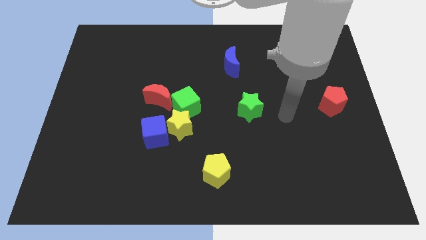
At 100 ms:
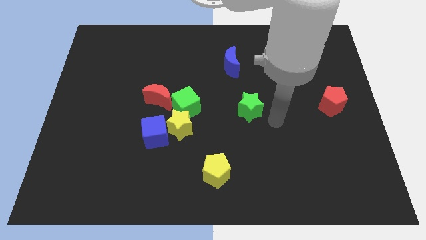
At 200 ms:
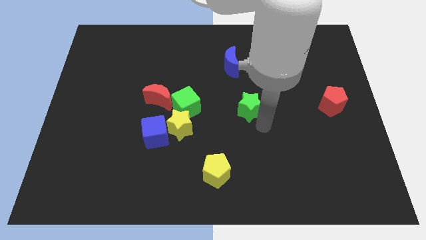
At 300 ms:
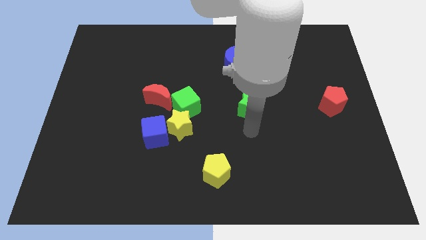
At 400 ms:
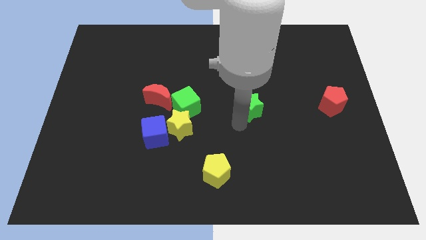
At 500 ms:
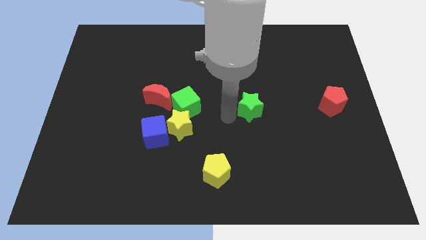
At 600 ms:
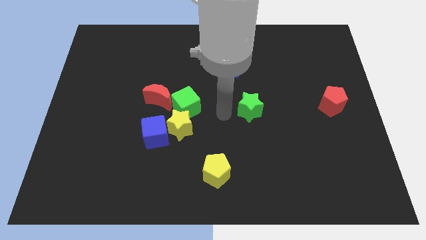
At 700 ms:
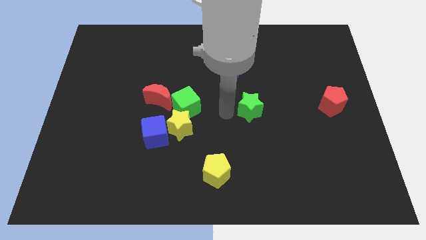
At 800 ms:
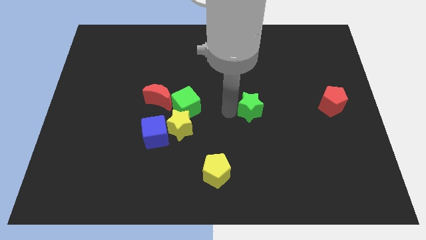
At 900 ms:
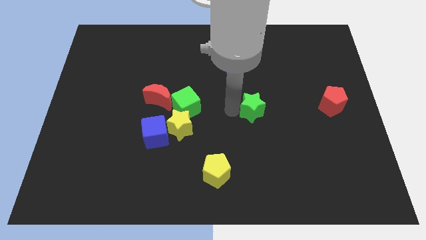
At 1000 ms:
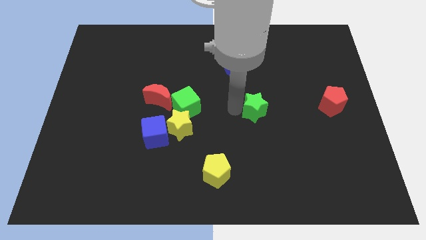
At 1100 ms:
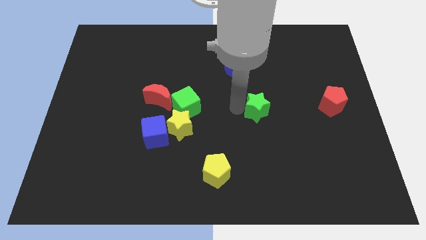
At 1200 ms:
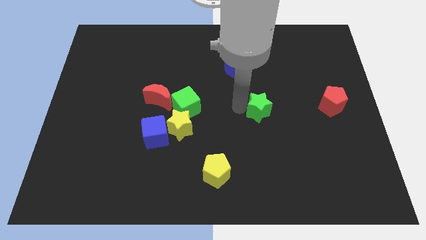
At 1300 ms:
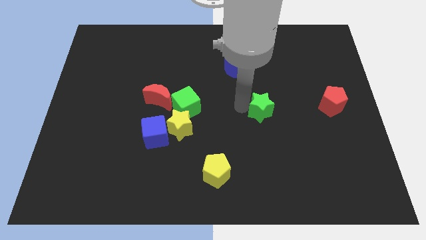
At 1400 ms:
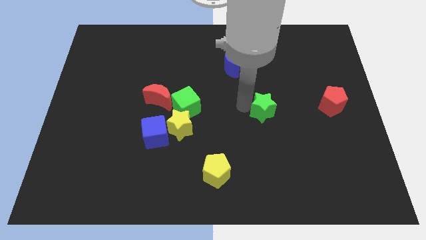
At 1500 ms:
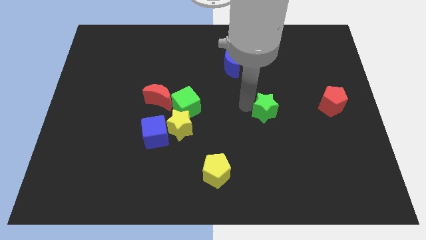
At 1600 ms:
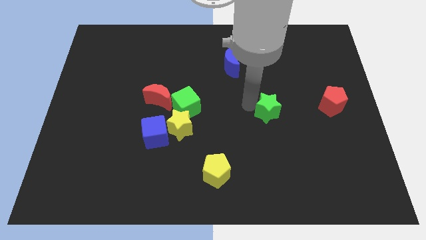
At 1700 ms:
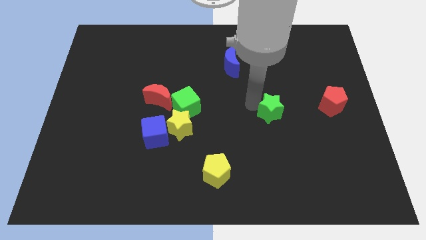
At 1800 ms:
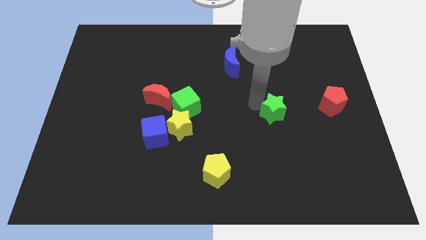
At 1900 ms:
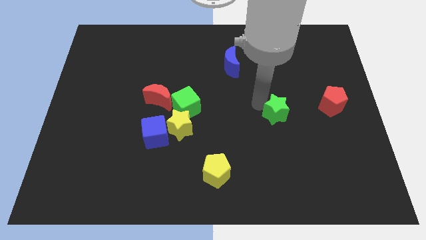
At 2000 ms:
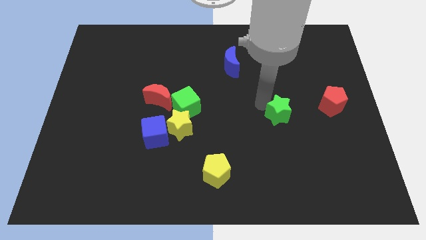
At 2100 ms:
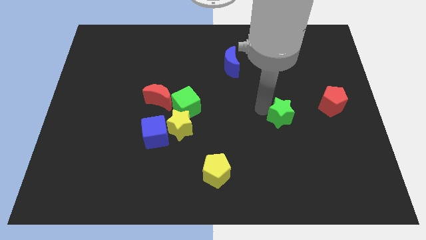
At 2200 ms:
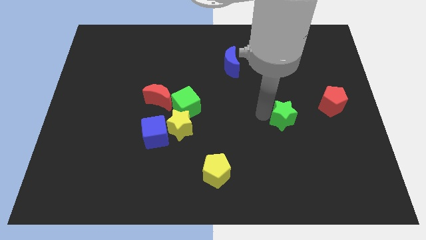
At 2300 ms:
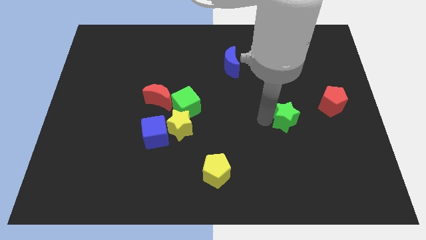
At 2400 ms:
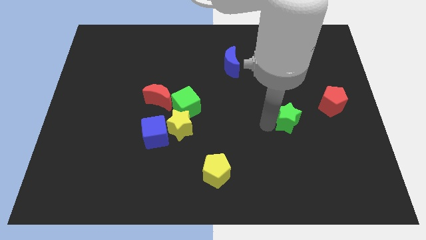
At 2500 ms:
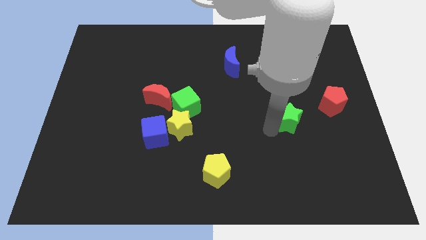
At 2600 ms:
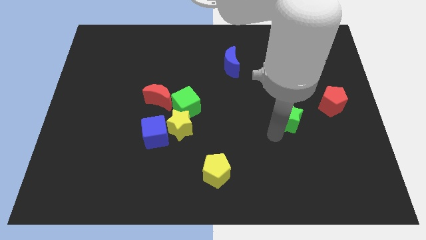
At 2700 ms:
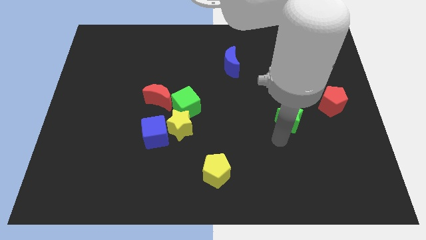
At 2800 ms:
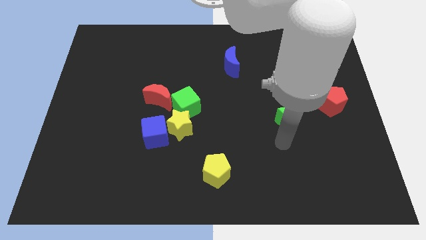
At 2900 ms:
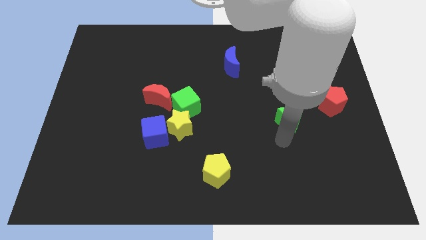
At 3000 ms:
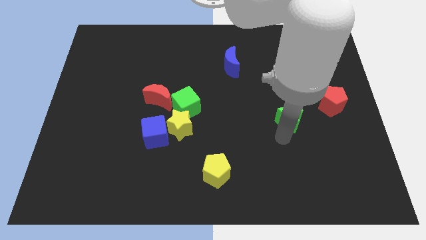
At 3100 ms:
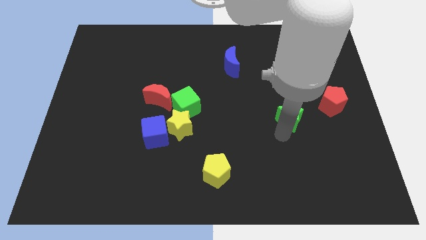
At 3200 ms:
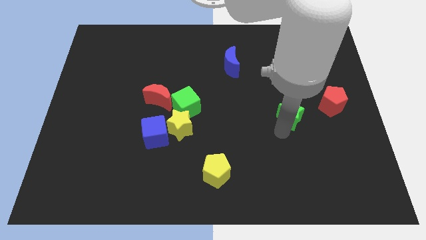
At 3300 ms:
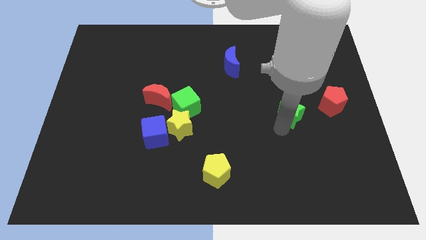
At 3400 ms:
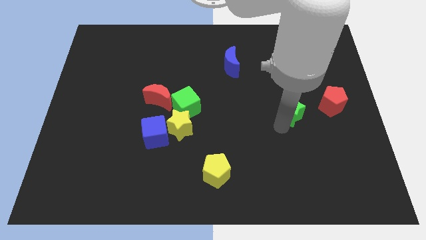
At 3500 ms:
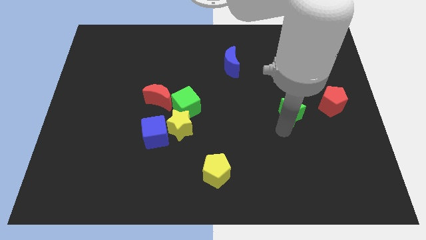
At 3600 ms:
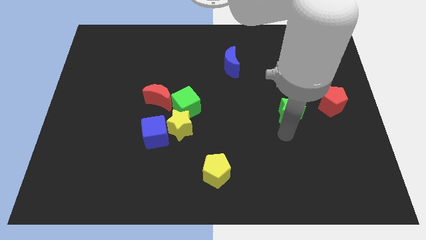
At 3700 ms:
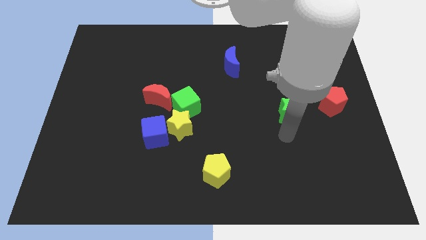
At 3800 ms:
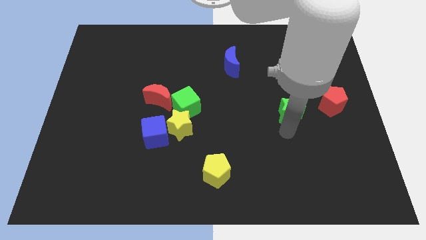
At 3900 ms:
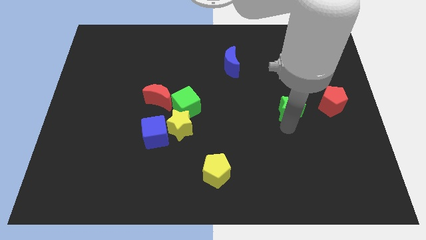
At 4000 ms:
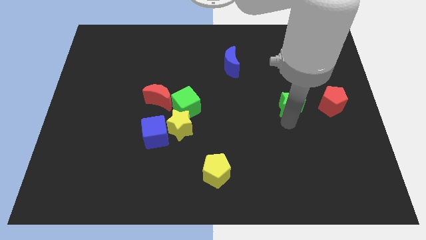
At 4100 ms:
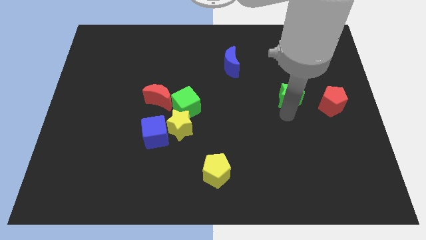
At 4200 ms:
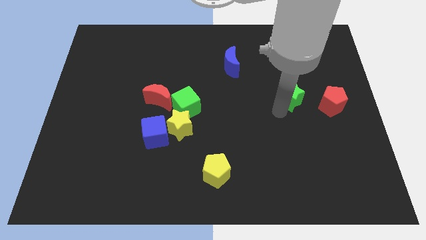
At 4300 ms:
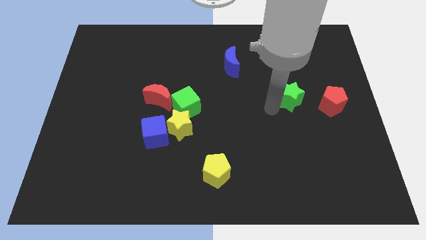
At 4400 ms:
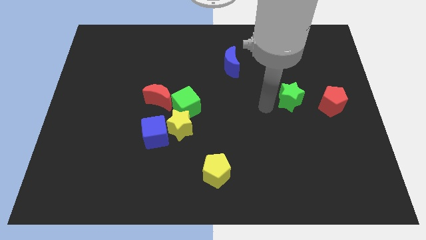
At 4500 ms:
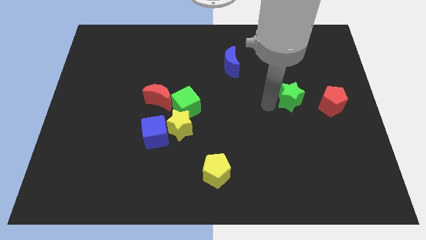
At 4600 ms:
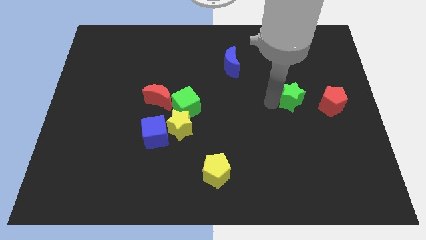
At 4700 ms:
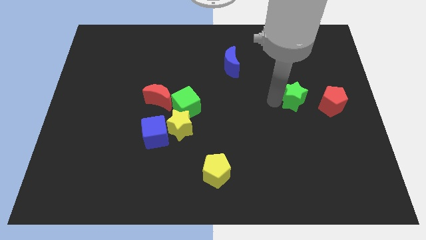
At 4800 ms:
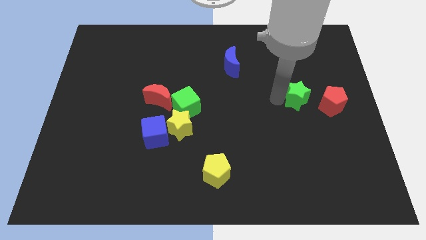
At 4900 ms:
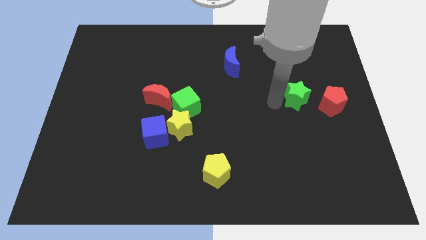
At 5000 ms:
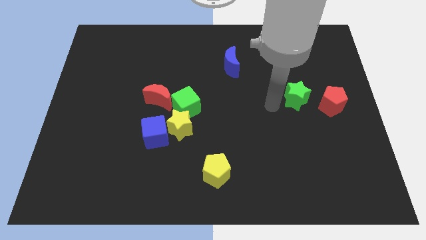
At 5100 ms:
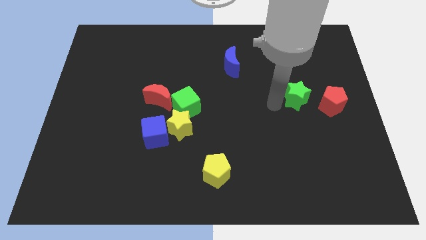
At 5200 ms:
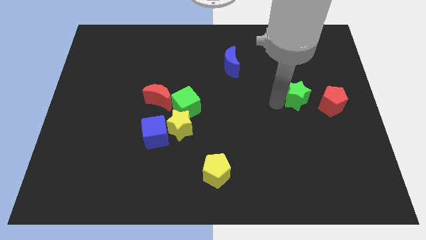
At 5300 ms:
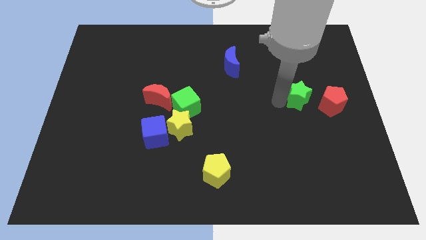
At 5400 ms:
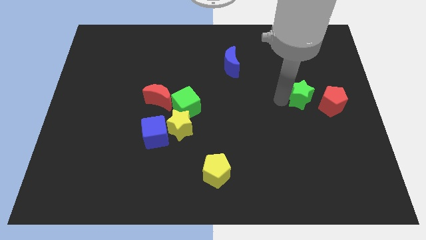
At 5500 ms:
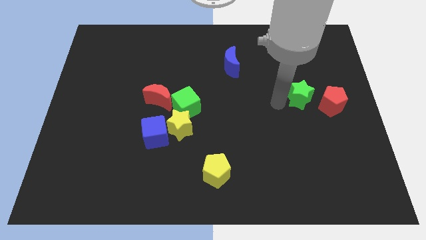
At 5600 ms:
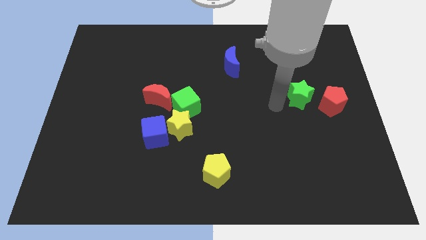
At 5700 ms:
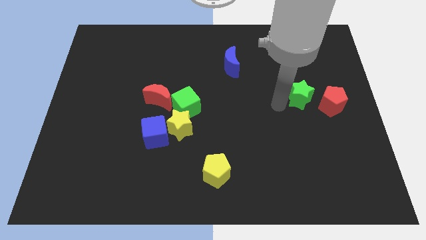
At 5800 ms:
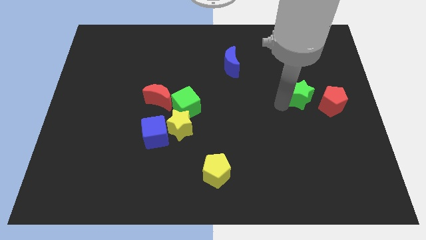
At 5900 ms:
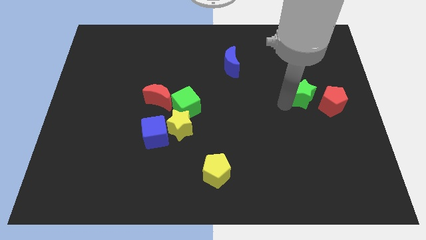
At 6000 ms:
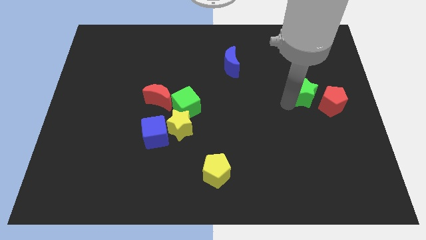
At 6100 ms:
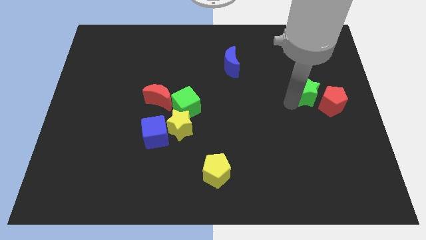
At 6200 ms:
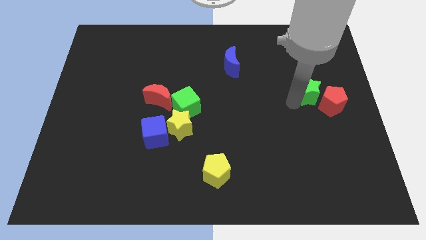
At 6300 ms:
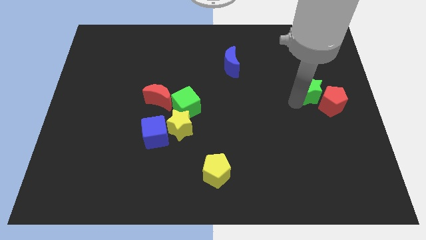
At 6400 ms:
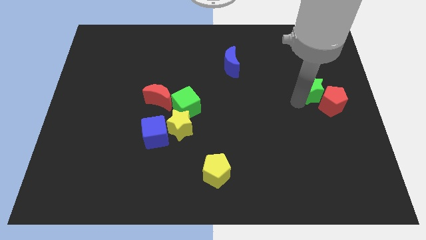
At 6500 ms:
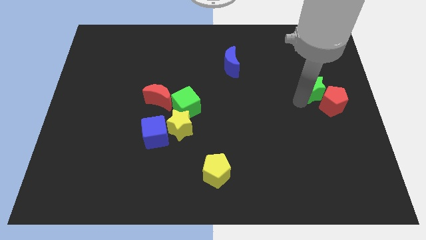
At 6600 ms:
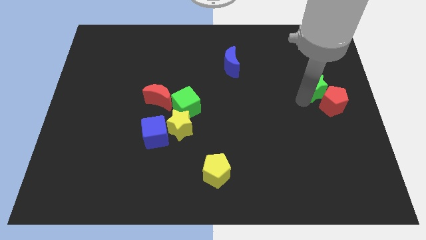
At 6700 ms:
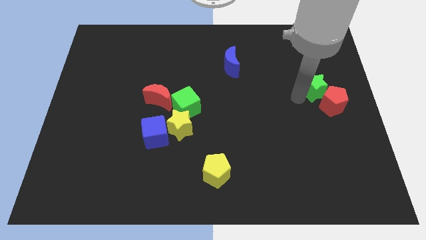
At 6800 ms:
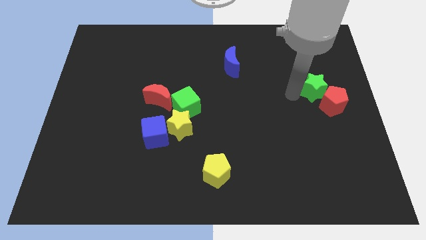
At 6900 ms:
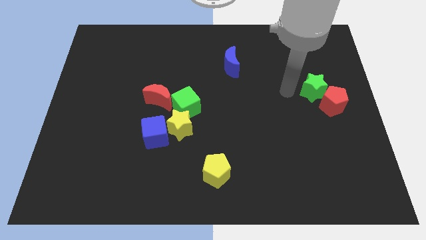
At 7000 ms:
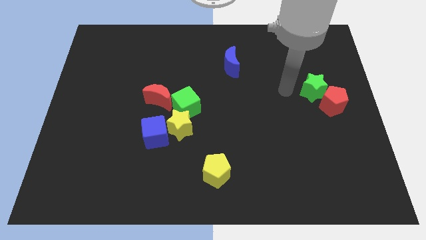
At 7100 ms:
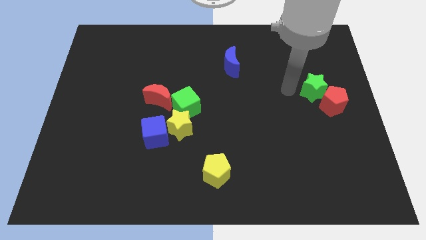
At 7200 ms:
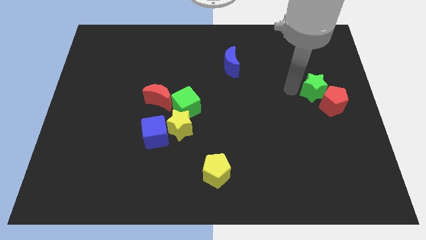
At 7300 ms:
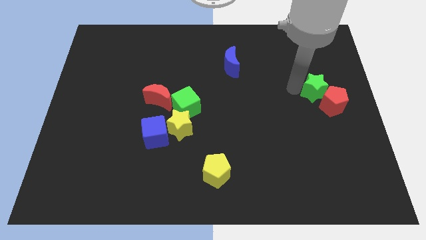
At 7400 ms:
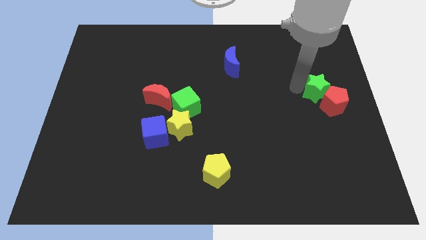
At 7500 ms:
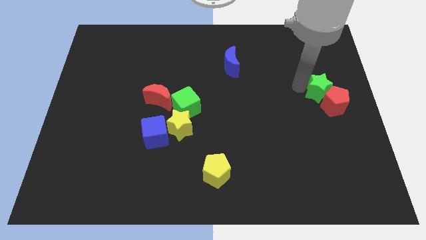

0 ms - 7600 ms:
slide the green star to the center right
